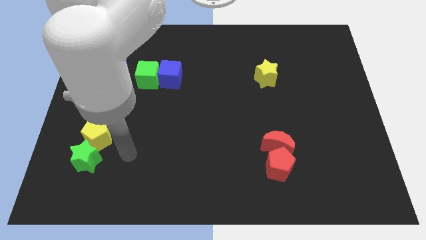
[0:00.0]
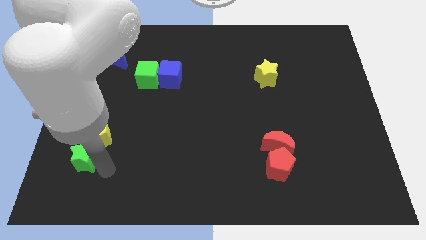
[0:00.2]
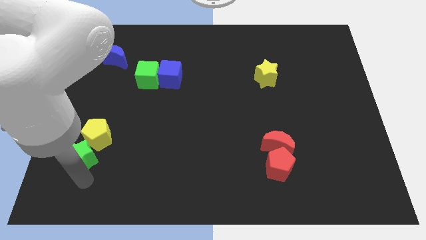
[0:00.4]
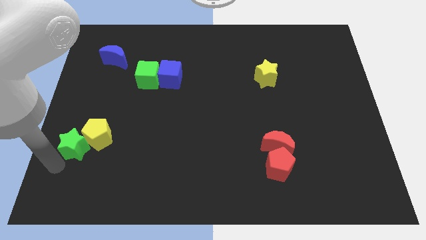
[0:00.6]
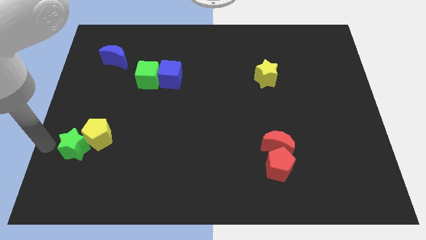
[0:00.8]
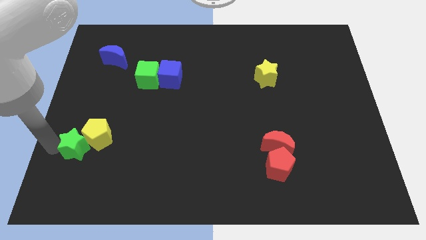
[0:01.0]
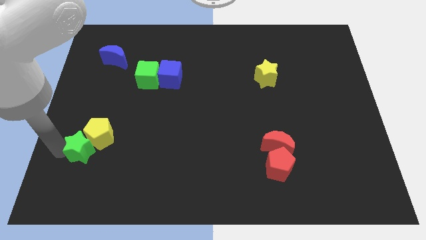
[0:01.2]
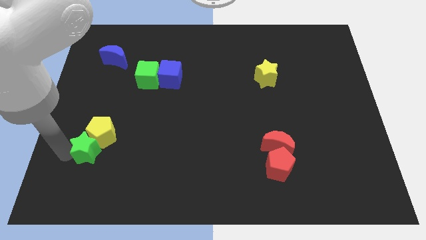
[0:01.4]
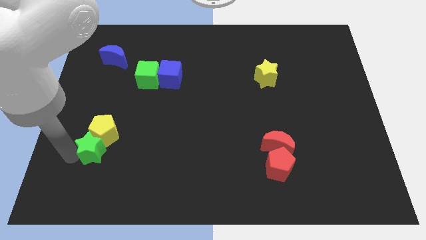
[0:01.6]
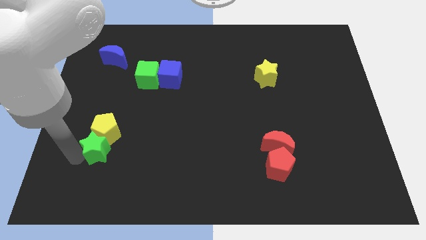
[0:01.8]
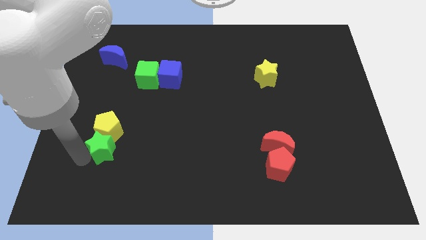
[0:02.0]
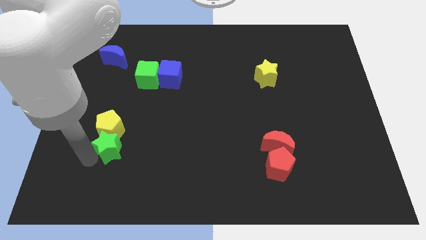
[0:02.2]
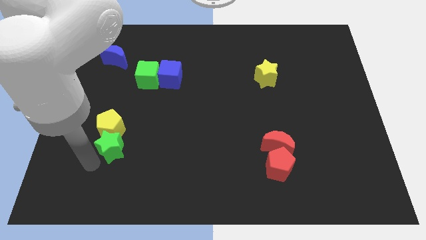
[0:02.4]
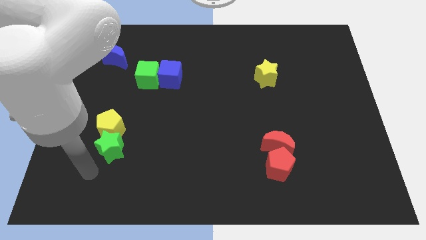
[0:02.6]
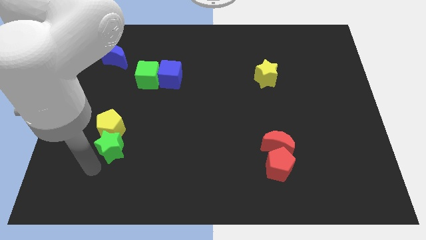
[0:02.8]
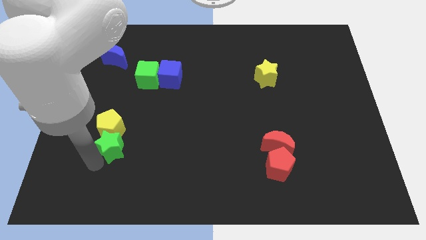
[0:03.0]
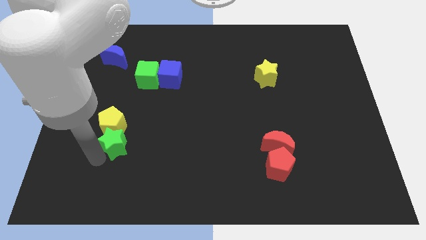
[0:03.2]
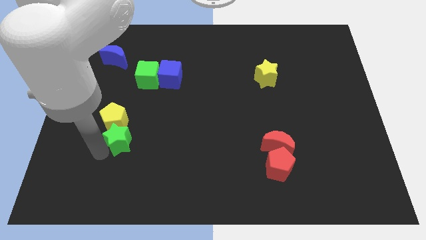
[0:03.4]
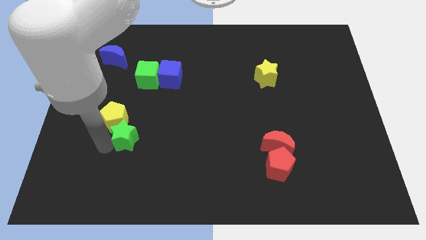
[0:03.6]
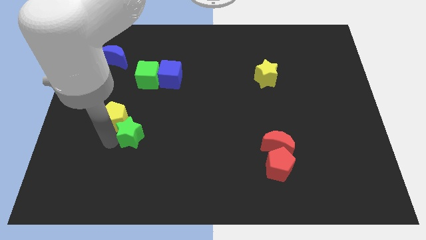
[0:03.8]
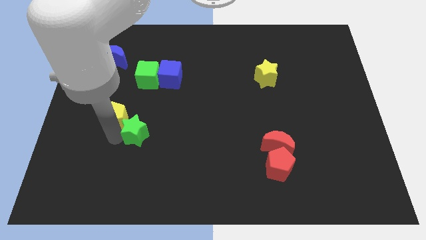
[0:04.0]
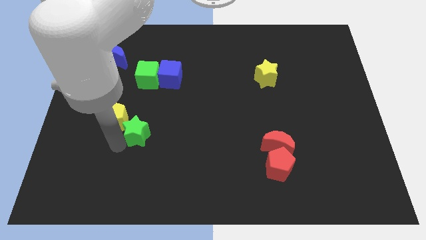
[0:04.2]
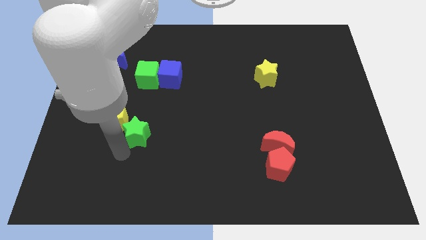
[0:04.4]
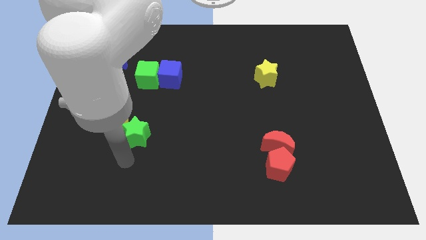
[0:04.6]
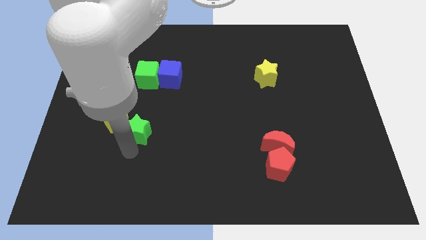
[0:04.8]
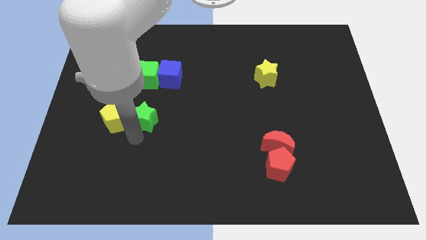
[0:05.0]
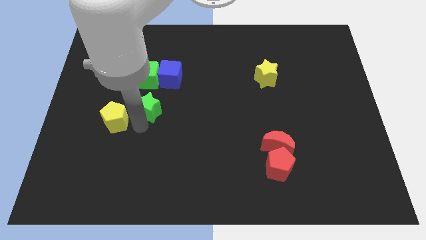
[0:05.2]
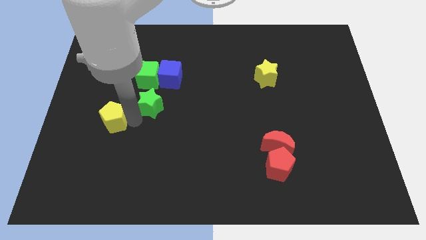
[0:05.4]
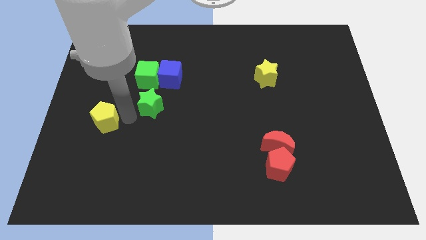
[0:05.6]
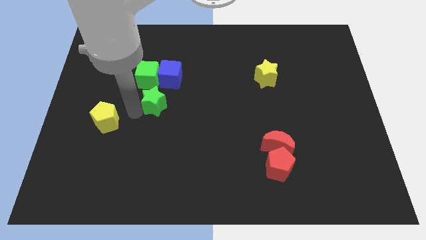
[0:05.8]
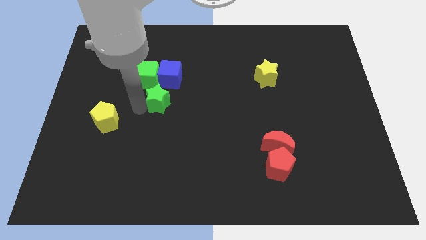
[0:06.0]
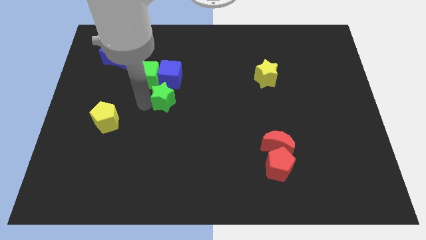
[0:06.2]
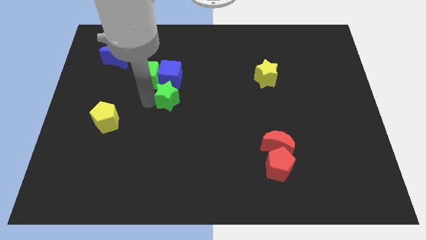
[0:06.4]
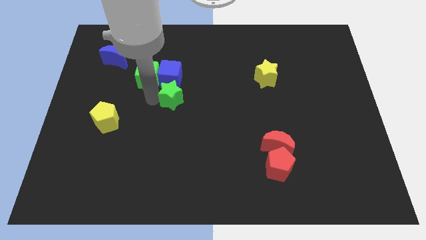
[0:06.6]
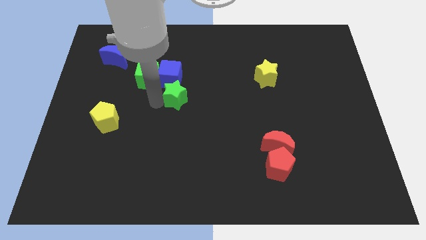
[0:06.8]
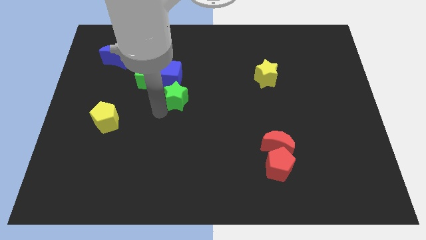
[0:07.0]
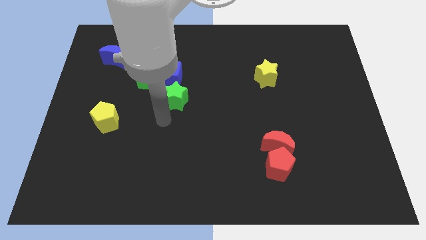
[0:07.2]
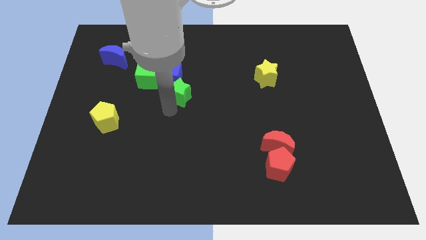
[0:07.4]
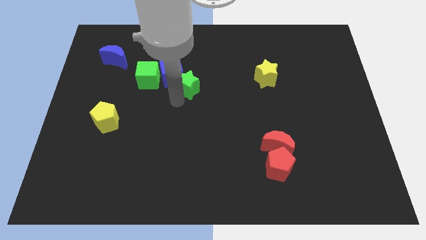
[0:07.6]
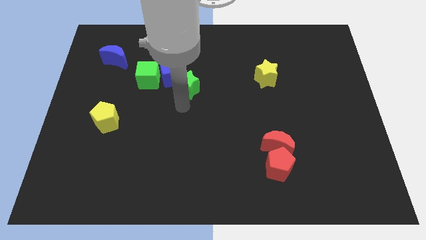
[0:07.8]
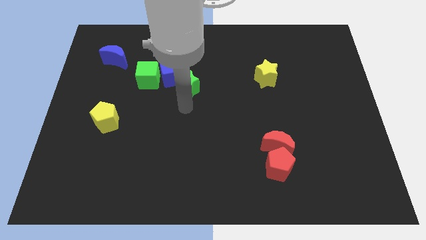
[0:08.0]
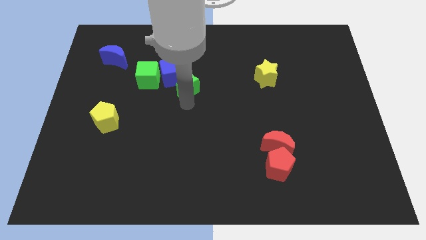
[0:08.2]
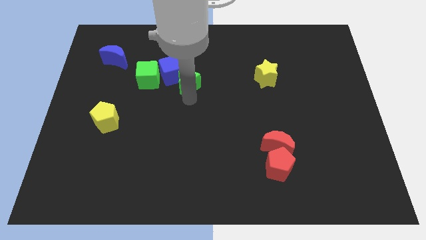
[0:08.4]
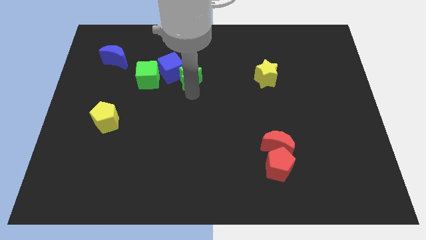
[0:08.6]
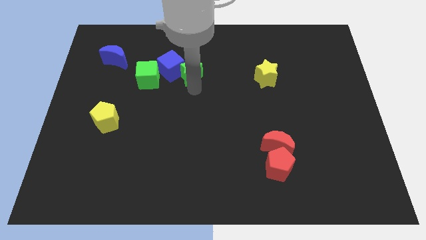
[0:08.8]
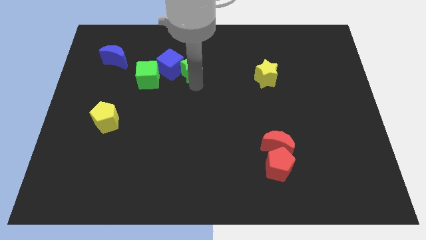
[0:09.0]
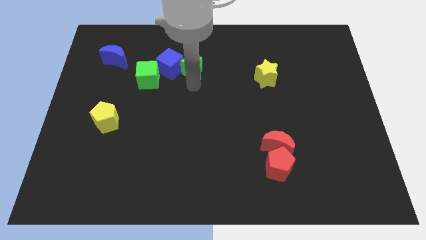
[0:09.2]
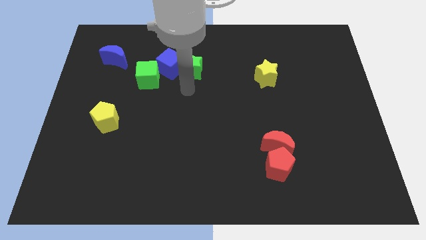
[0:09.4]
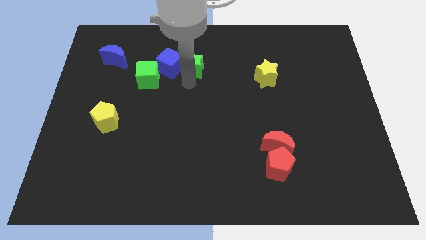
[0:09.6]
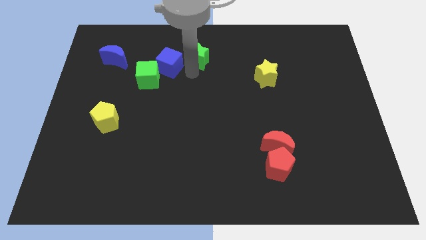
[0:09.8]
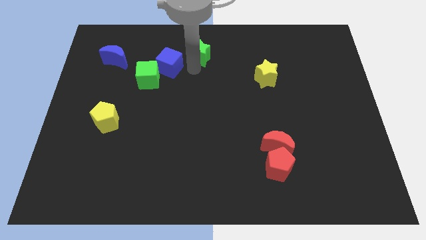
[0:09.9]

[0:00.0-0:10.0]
slide the green star to the top side

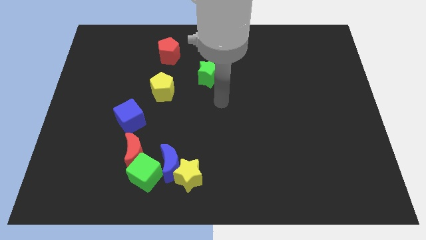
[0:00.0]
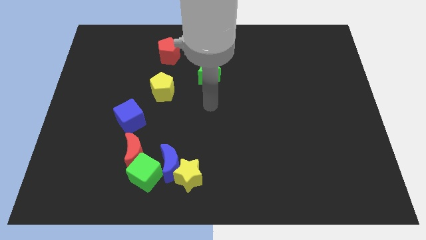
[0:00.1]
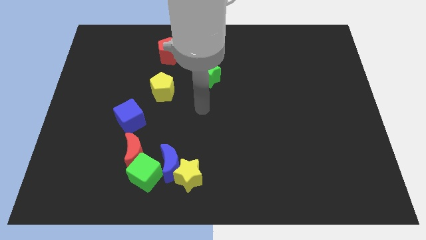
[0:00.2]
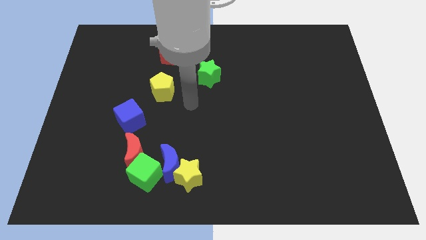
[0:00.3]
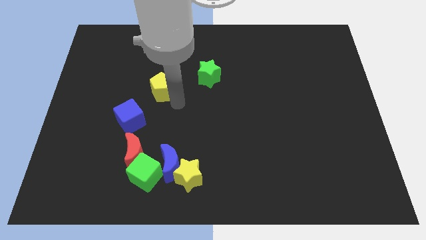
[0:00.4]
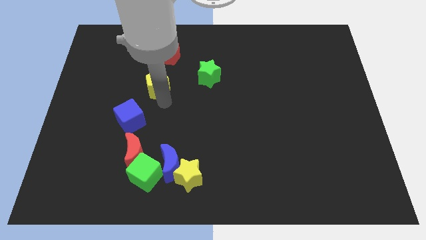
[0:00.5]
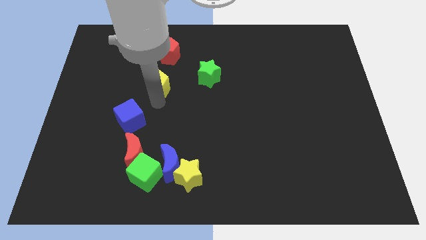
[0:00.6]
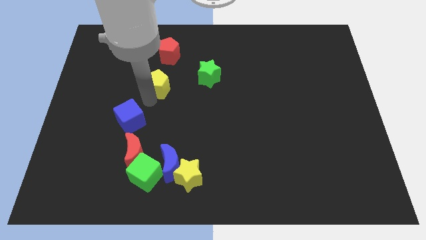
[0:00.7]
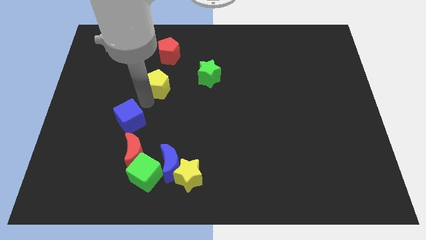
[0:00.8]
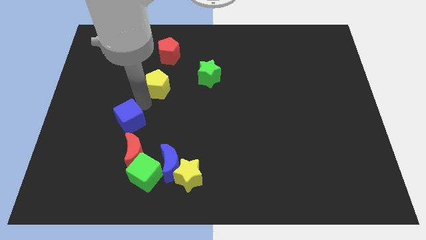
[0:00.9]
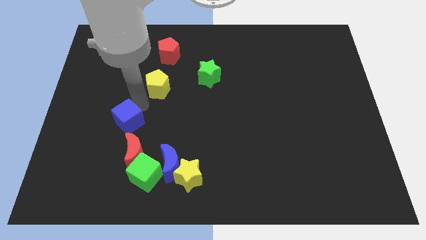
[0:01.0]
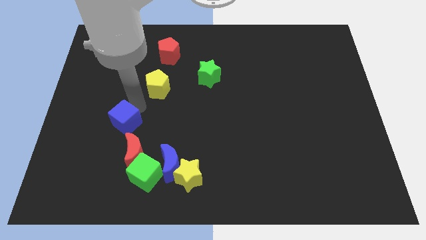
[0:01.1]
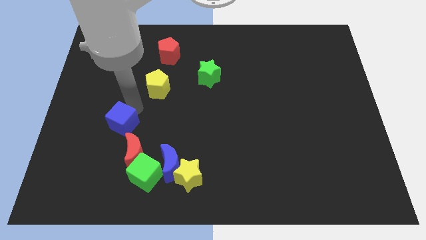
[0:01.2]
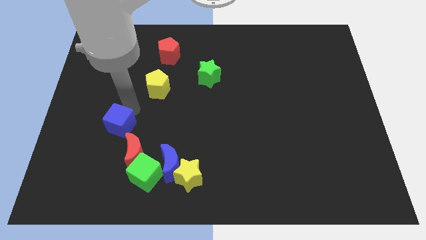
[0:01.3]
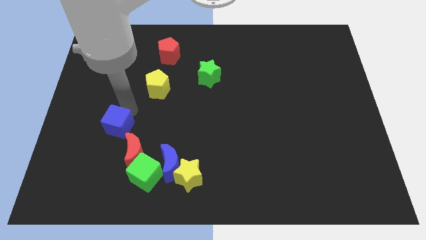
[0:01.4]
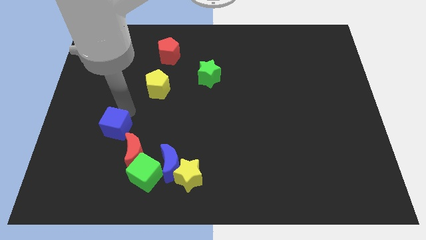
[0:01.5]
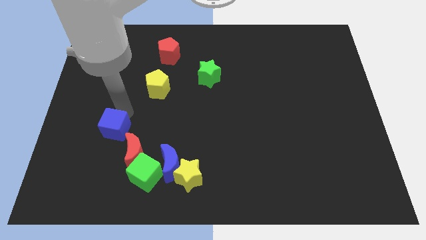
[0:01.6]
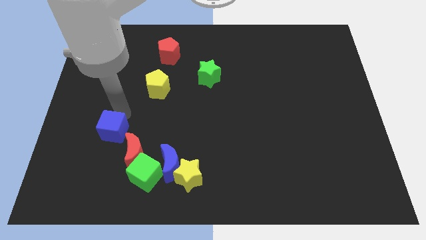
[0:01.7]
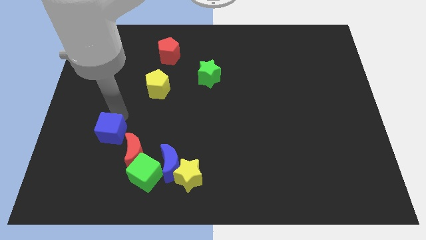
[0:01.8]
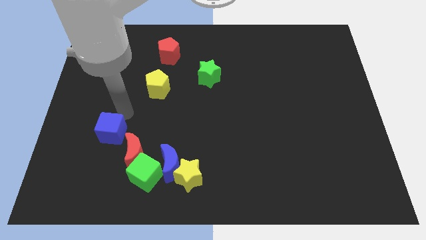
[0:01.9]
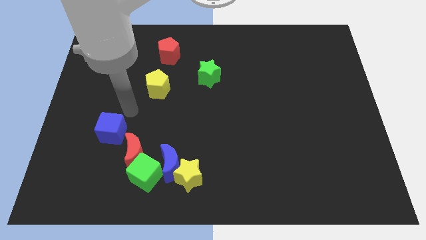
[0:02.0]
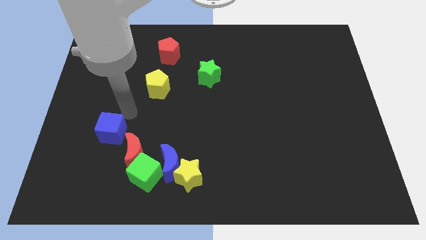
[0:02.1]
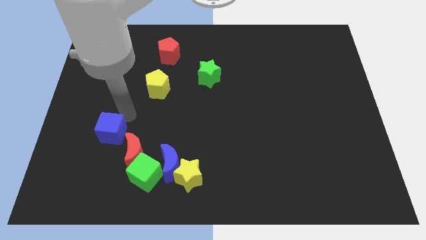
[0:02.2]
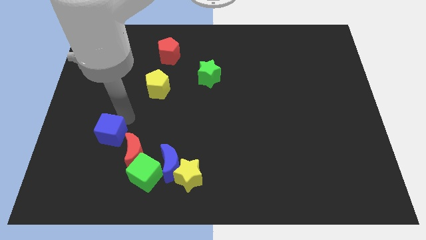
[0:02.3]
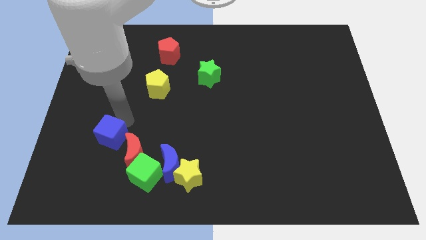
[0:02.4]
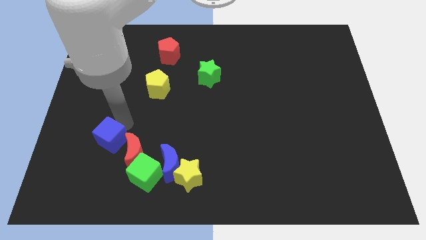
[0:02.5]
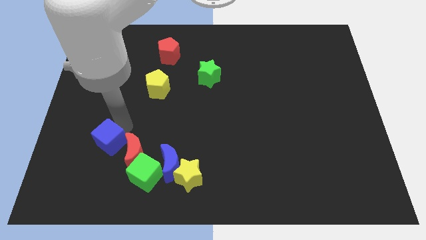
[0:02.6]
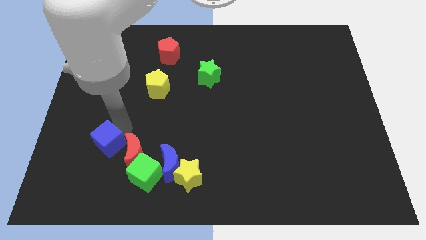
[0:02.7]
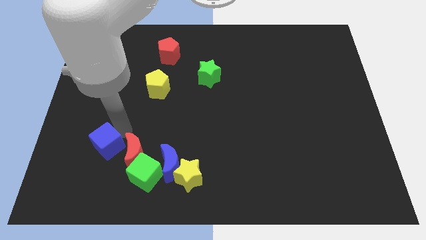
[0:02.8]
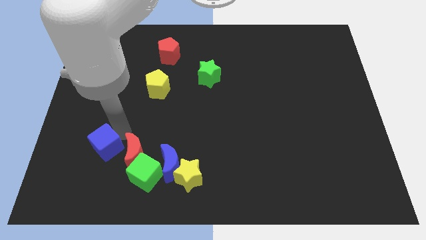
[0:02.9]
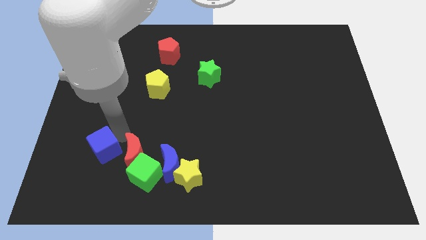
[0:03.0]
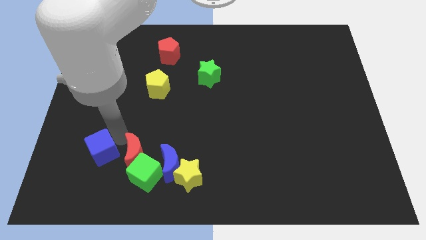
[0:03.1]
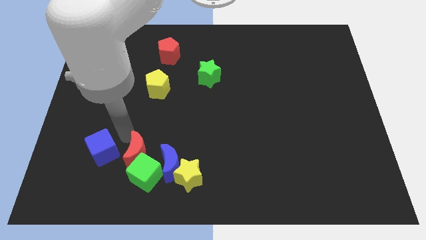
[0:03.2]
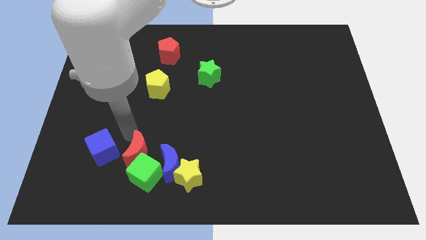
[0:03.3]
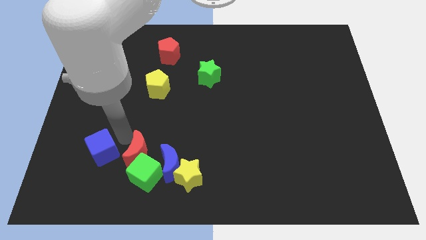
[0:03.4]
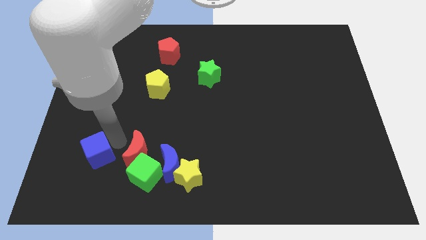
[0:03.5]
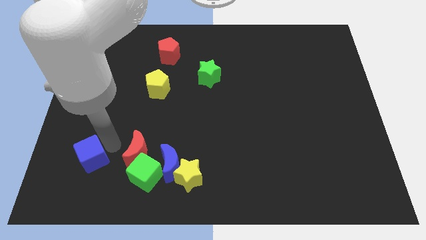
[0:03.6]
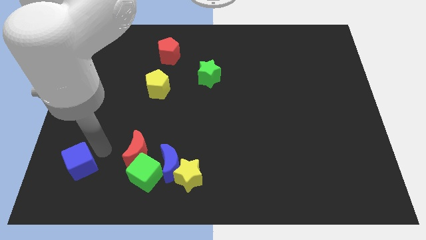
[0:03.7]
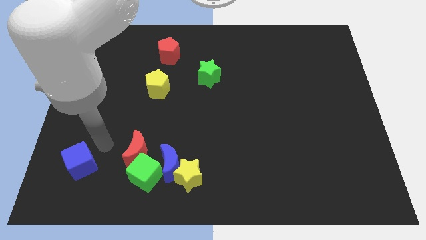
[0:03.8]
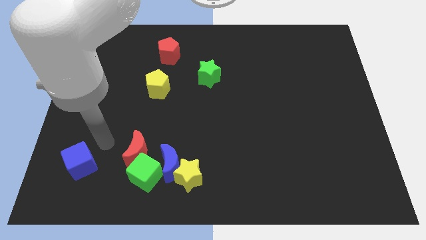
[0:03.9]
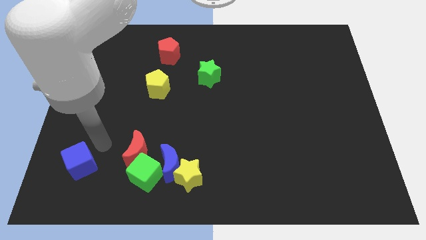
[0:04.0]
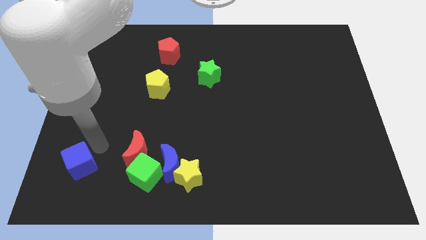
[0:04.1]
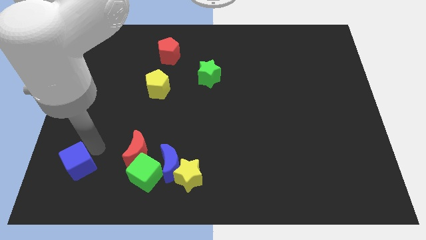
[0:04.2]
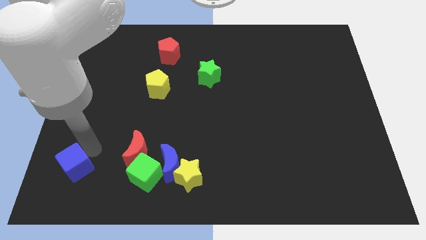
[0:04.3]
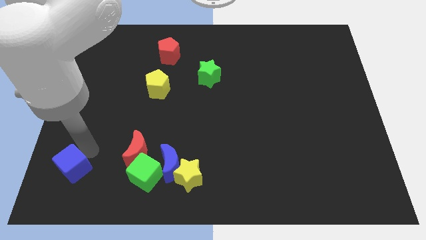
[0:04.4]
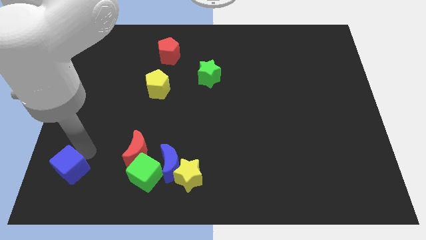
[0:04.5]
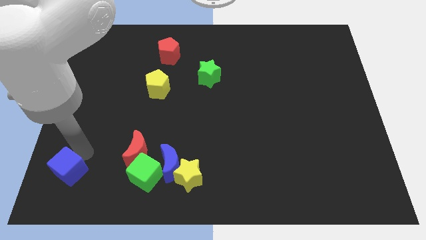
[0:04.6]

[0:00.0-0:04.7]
slide the blue cube to the bottom left
